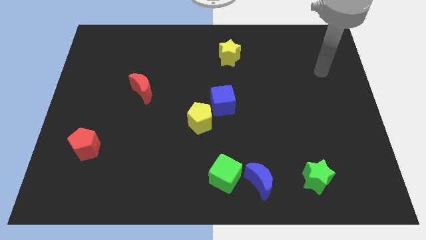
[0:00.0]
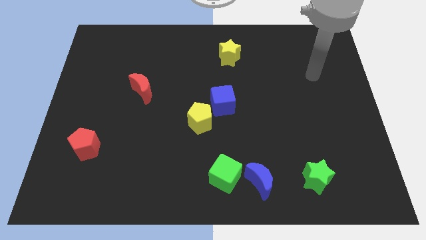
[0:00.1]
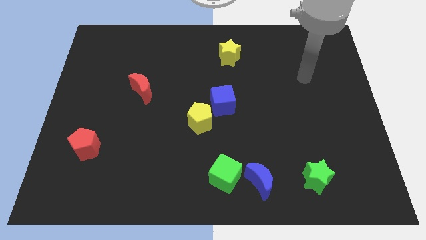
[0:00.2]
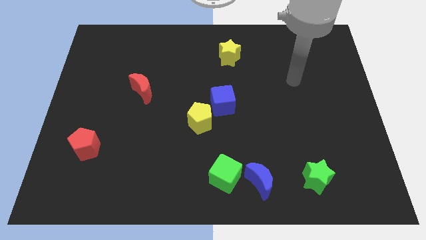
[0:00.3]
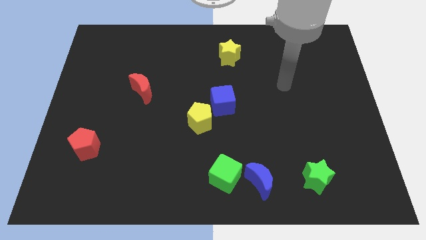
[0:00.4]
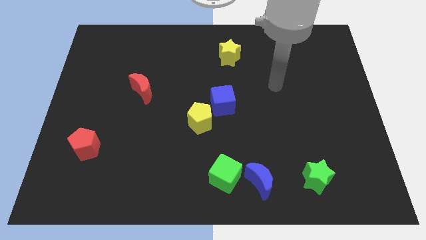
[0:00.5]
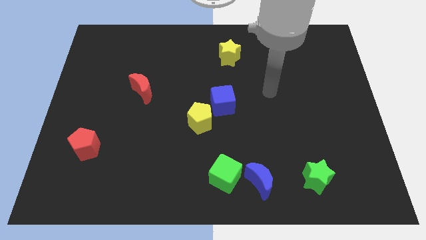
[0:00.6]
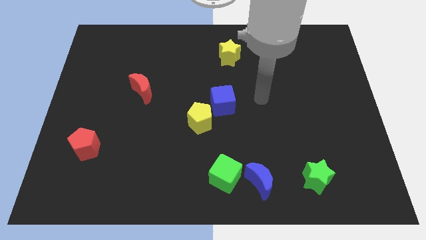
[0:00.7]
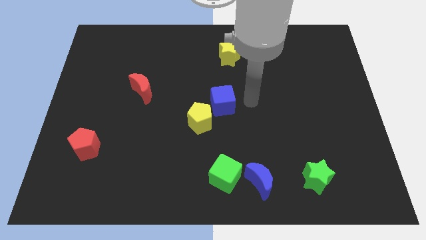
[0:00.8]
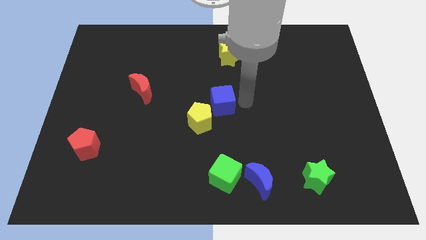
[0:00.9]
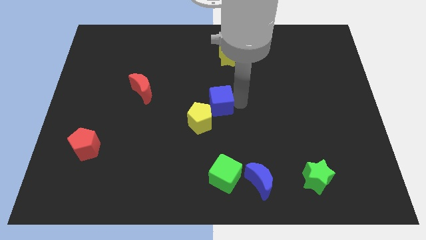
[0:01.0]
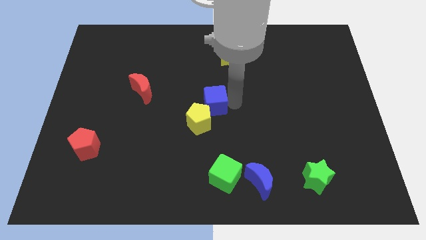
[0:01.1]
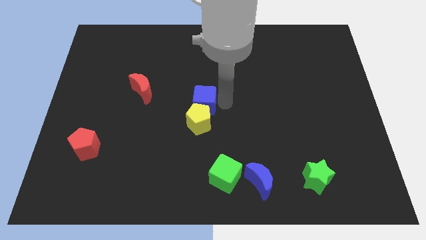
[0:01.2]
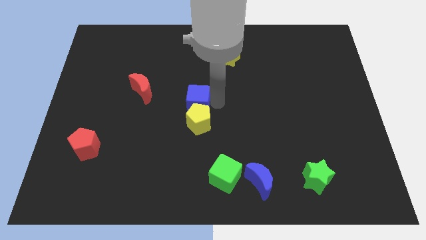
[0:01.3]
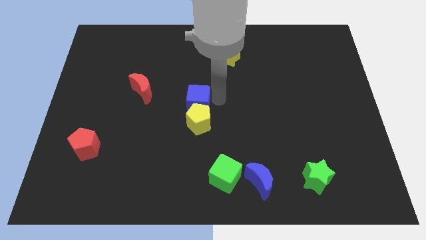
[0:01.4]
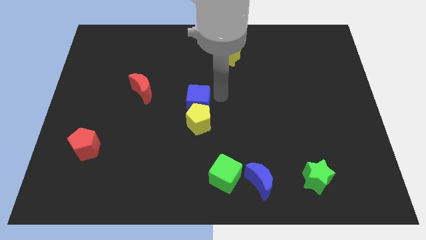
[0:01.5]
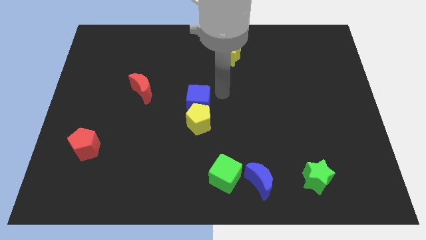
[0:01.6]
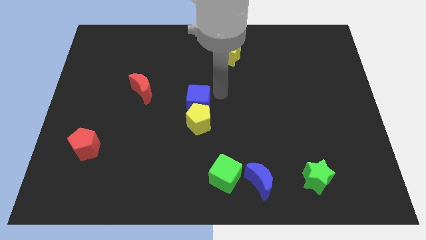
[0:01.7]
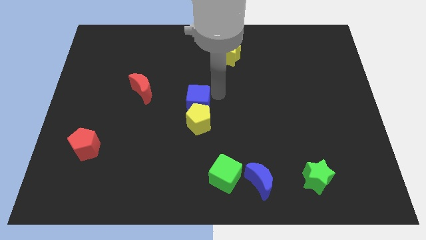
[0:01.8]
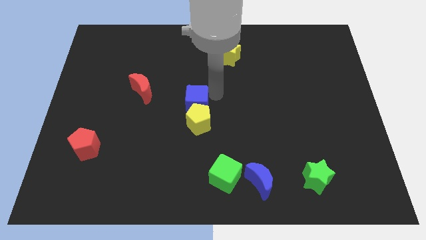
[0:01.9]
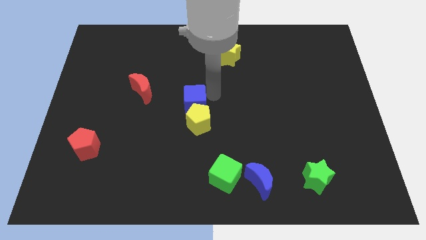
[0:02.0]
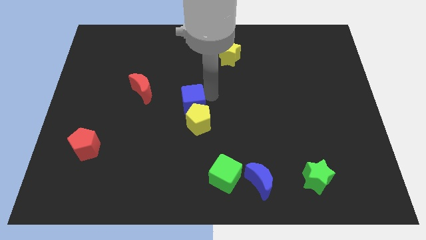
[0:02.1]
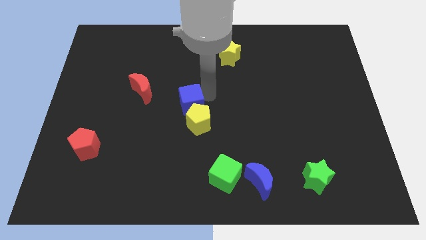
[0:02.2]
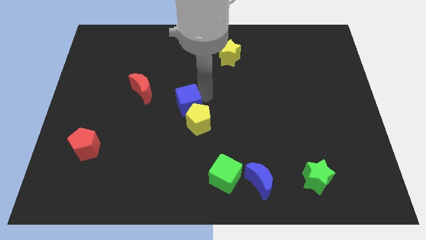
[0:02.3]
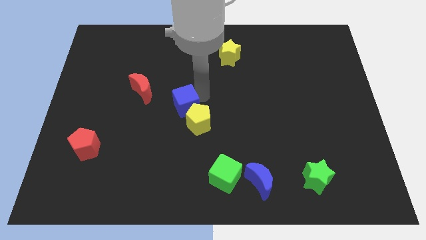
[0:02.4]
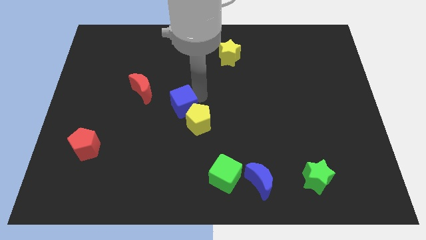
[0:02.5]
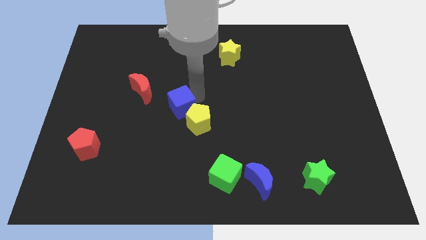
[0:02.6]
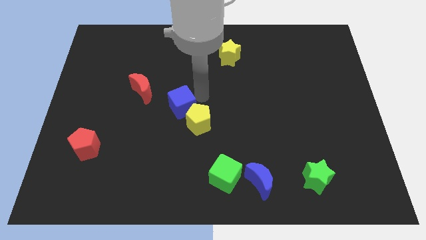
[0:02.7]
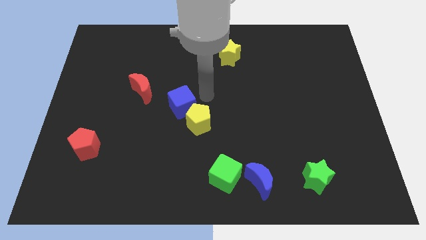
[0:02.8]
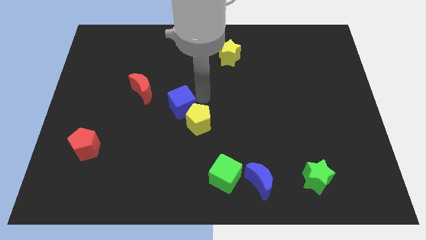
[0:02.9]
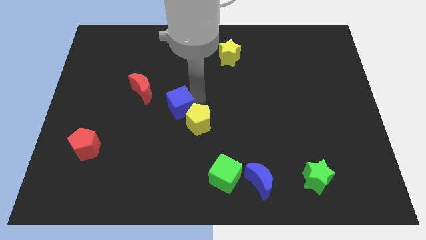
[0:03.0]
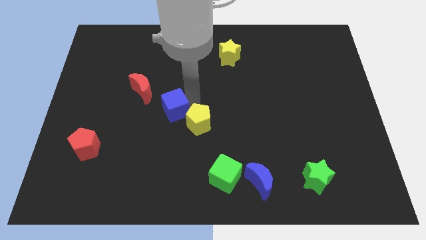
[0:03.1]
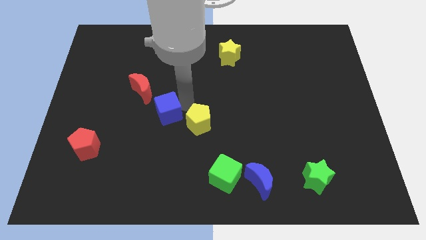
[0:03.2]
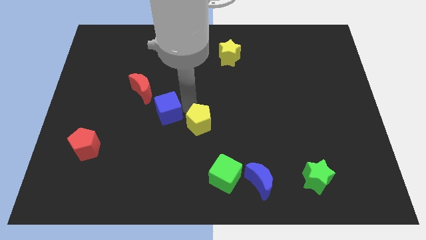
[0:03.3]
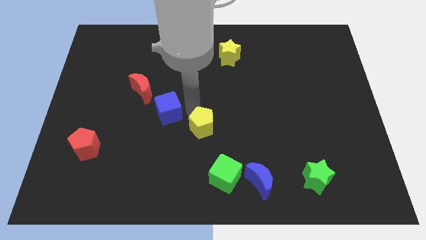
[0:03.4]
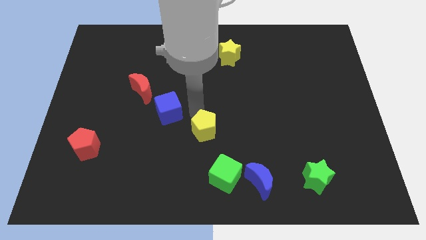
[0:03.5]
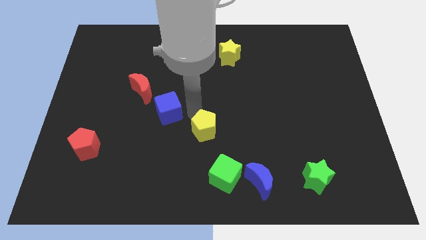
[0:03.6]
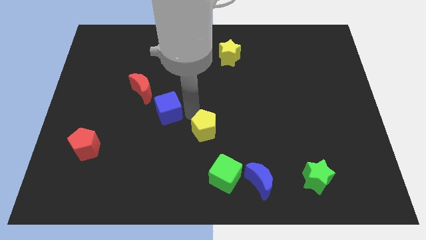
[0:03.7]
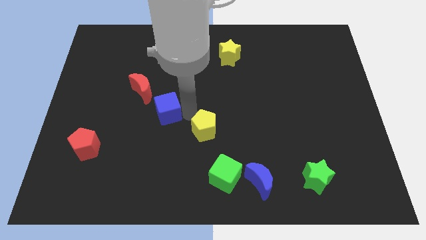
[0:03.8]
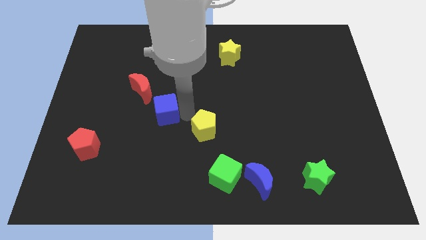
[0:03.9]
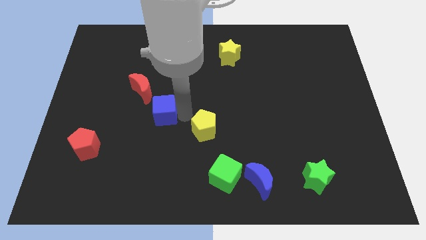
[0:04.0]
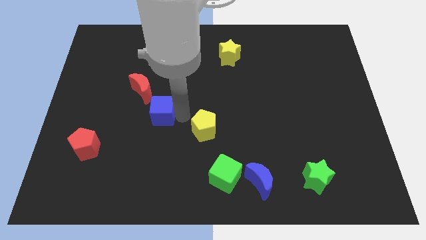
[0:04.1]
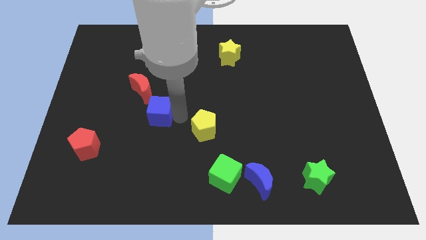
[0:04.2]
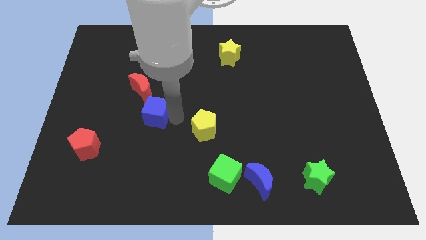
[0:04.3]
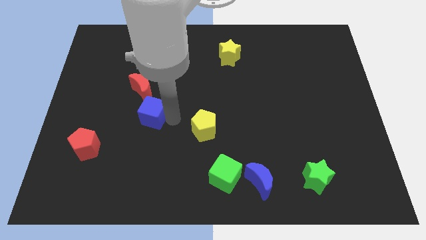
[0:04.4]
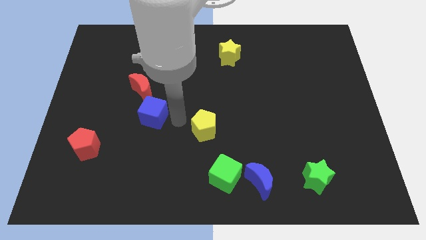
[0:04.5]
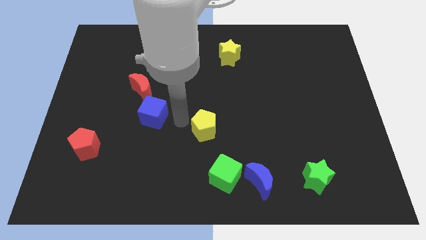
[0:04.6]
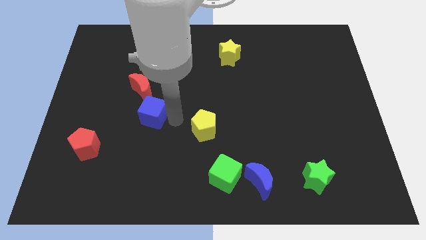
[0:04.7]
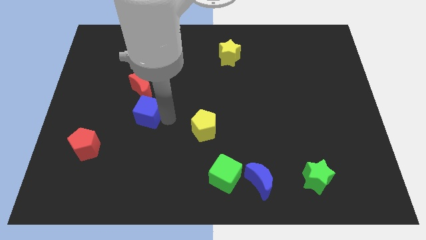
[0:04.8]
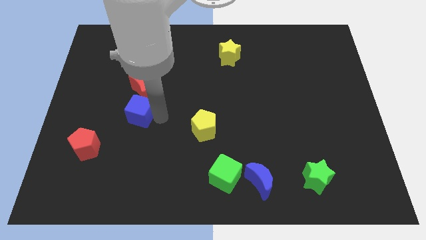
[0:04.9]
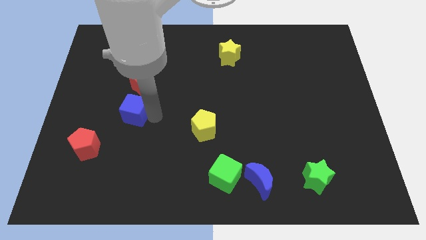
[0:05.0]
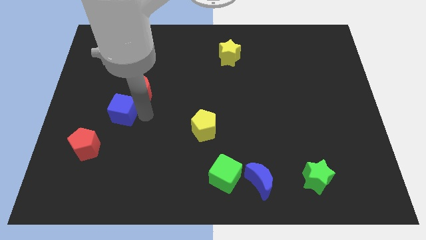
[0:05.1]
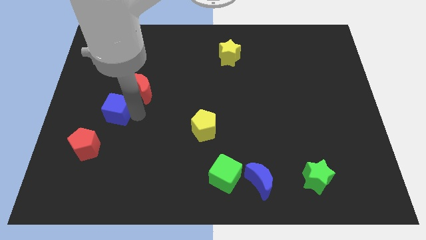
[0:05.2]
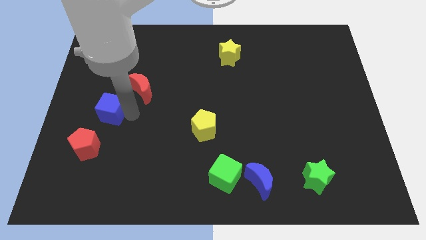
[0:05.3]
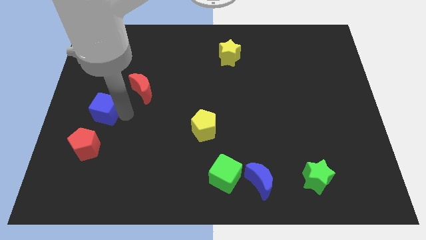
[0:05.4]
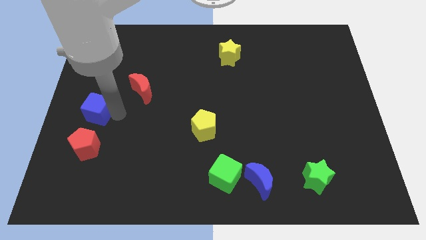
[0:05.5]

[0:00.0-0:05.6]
put the blue cube to the center left
